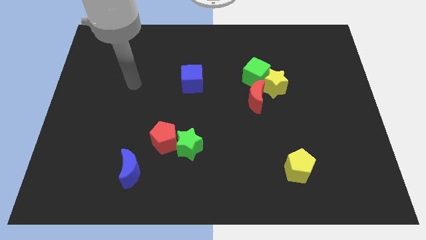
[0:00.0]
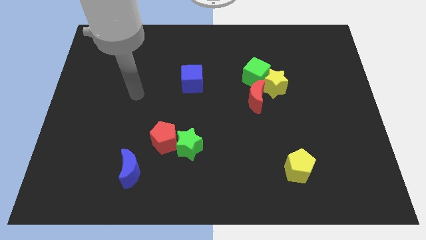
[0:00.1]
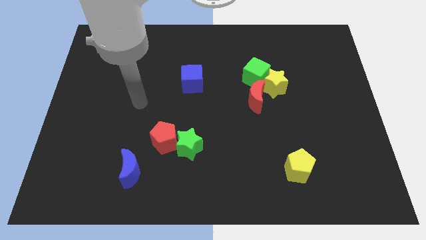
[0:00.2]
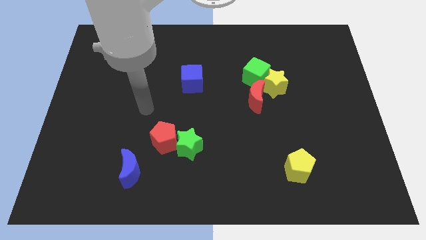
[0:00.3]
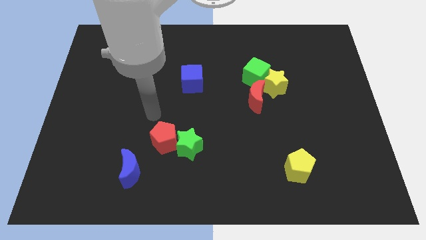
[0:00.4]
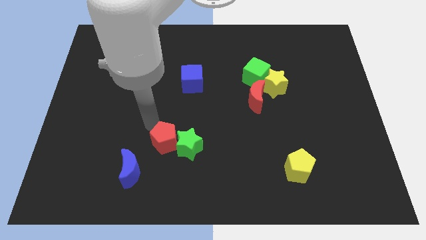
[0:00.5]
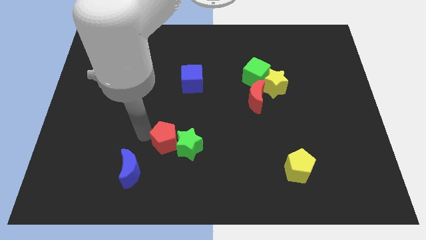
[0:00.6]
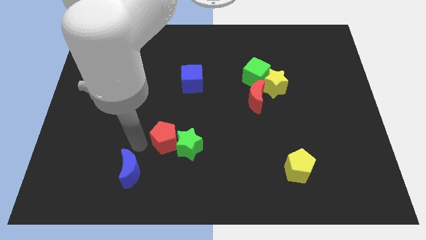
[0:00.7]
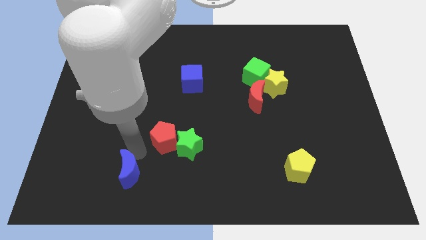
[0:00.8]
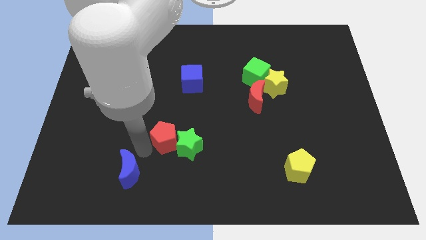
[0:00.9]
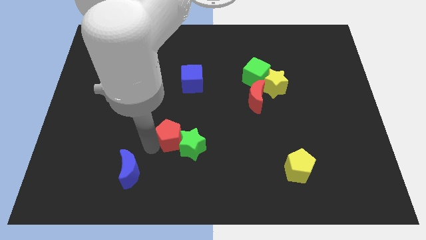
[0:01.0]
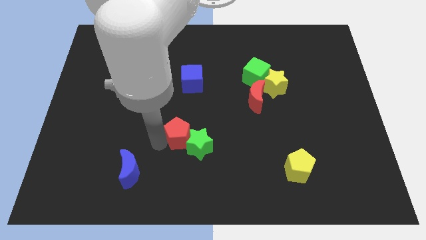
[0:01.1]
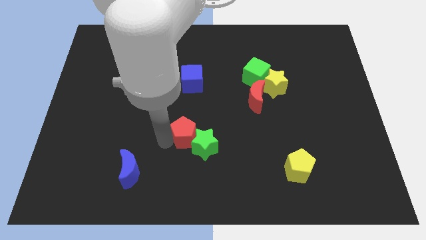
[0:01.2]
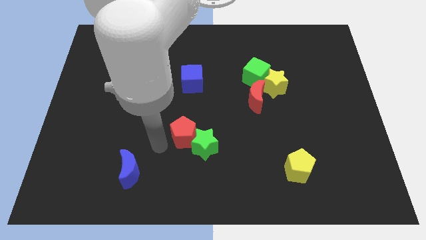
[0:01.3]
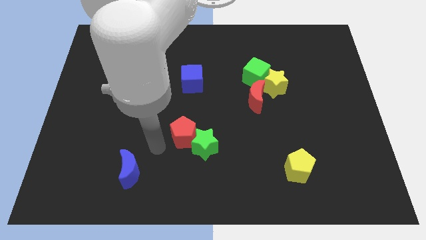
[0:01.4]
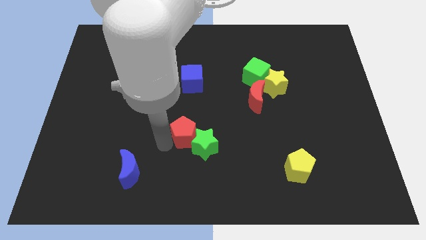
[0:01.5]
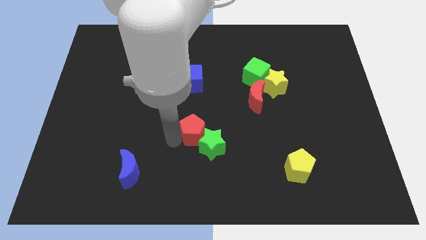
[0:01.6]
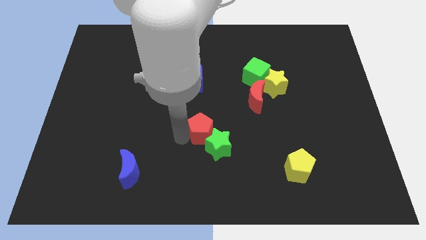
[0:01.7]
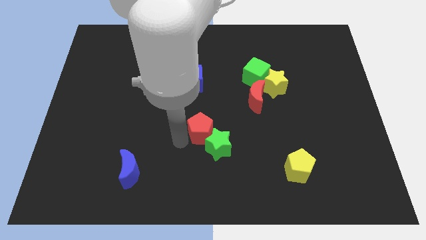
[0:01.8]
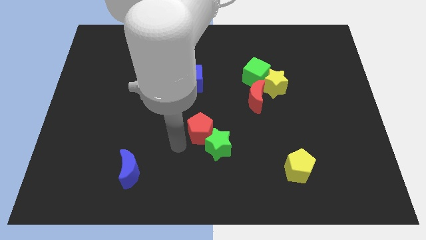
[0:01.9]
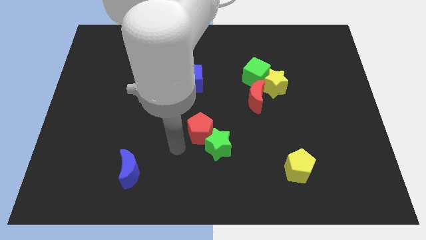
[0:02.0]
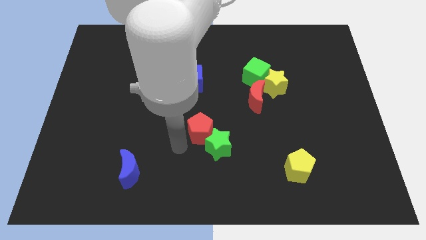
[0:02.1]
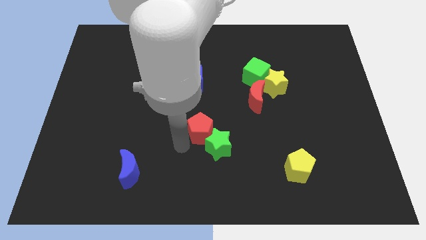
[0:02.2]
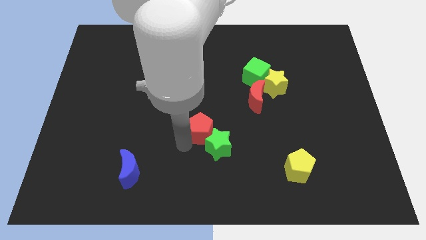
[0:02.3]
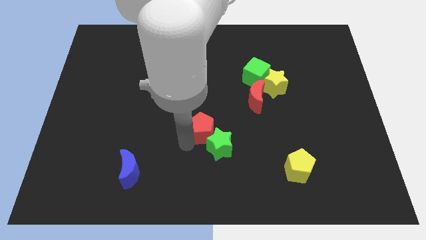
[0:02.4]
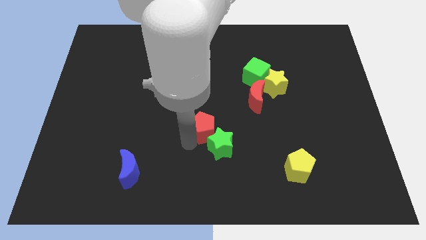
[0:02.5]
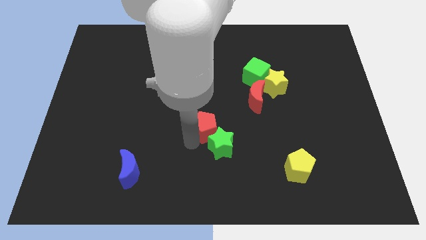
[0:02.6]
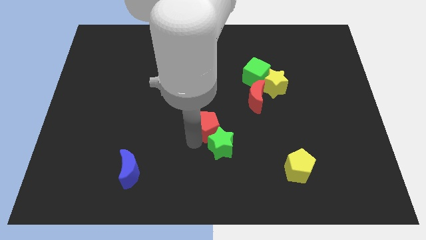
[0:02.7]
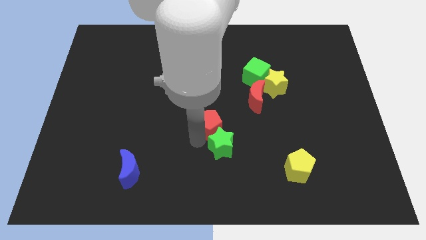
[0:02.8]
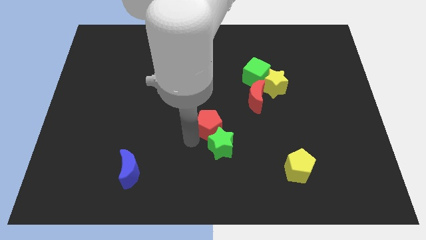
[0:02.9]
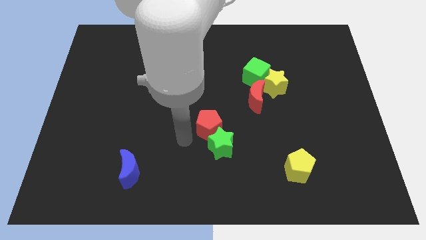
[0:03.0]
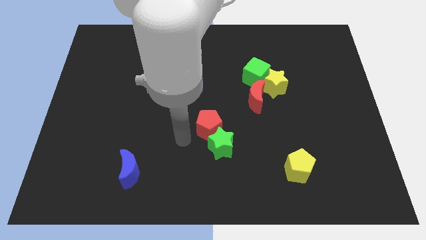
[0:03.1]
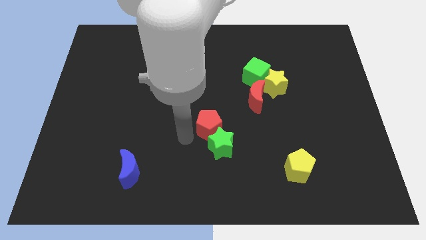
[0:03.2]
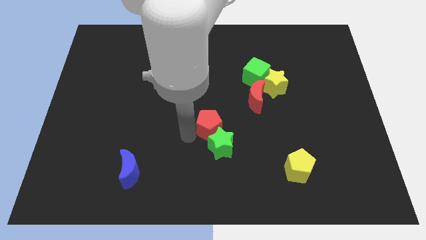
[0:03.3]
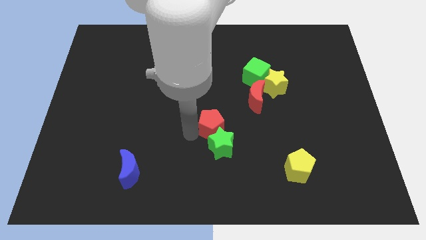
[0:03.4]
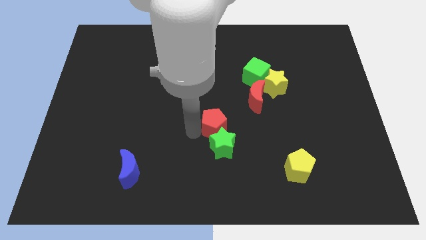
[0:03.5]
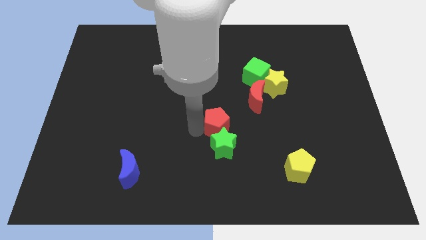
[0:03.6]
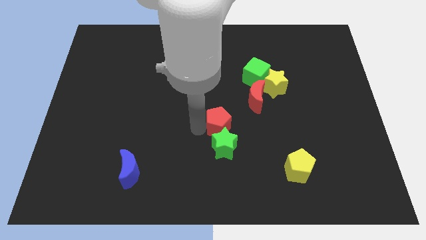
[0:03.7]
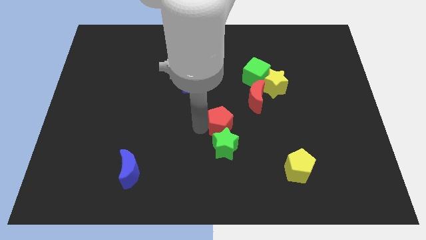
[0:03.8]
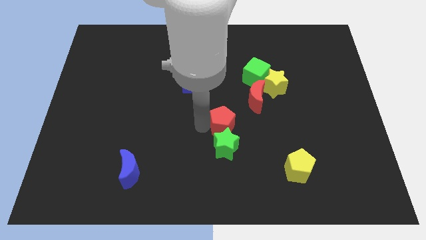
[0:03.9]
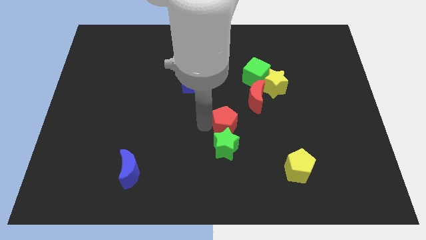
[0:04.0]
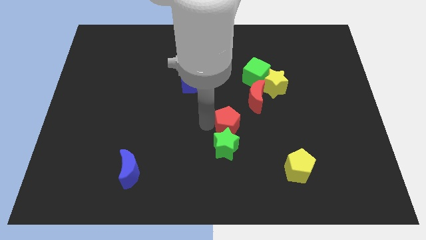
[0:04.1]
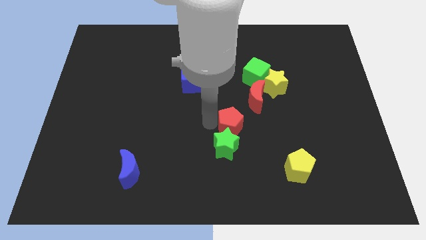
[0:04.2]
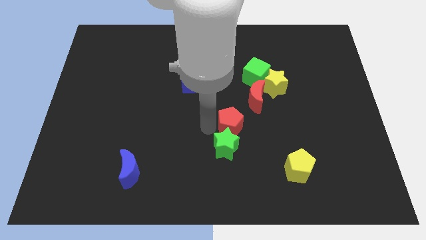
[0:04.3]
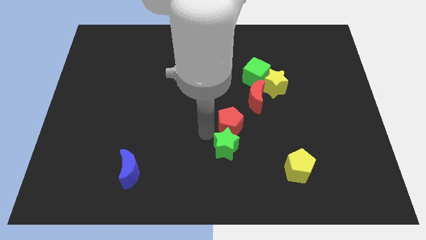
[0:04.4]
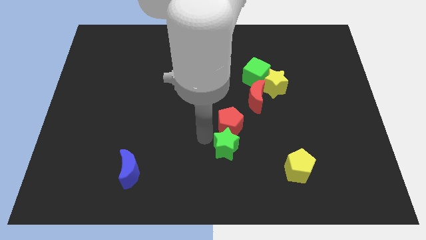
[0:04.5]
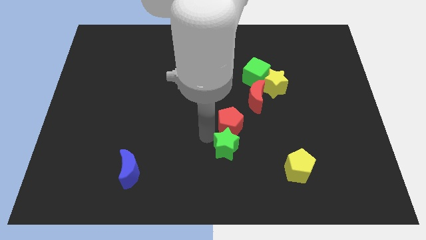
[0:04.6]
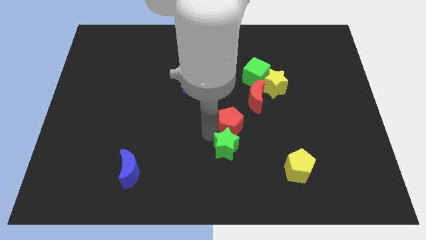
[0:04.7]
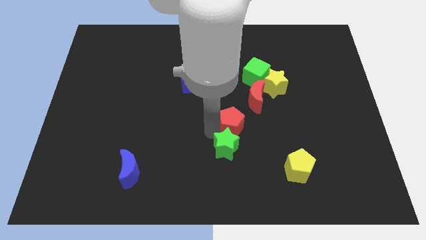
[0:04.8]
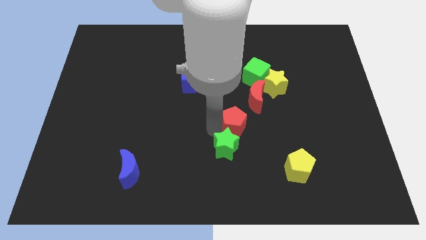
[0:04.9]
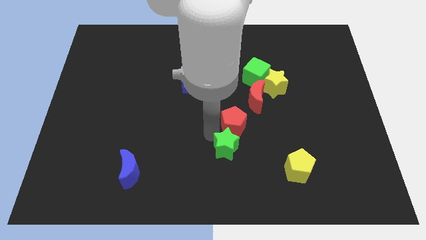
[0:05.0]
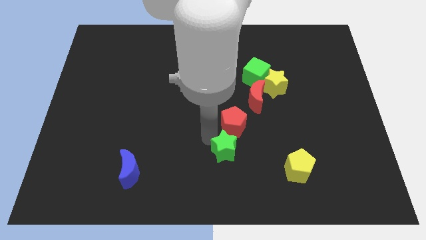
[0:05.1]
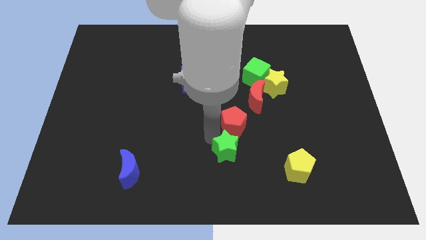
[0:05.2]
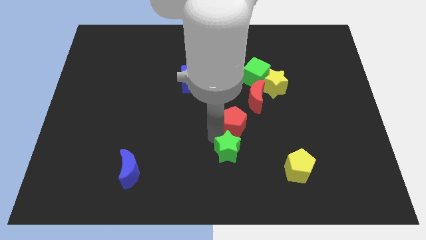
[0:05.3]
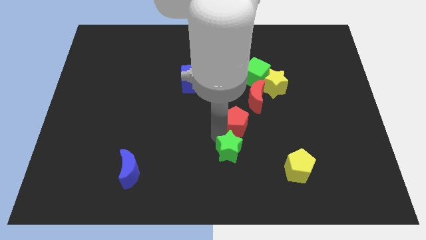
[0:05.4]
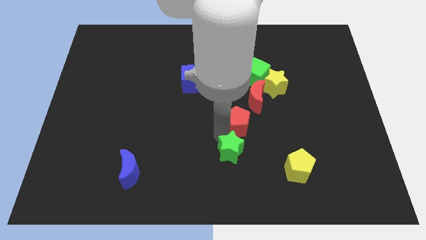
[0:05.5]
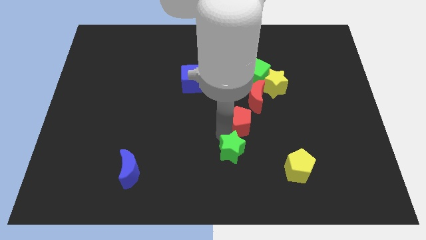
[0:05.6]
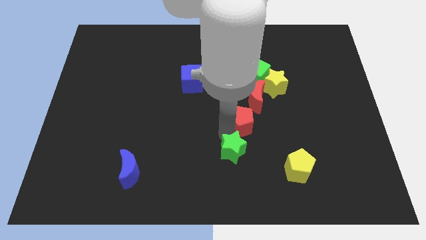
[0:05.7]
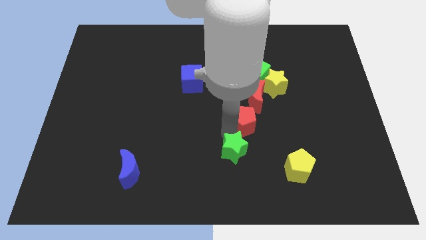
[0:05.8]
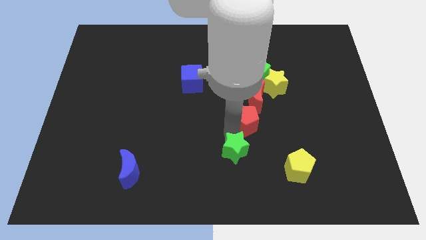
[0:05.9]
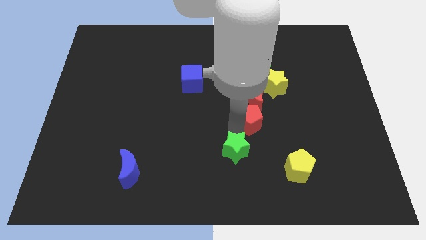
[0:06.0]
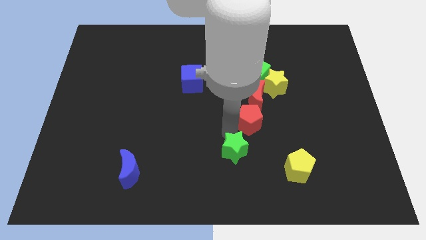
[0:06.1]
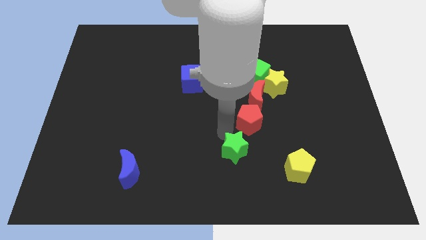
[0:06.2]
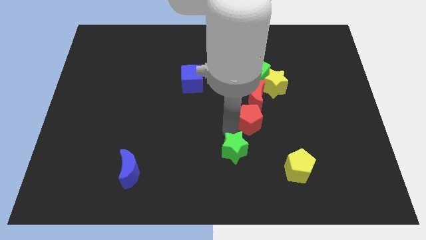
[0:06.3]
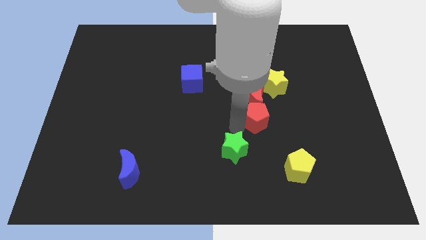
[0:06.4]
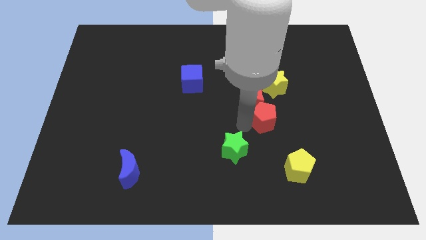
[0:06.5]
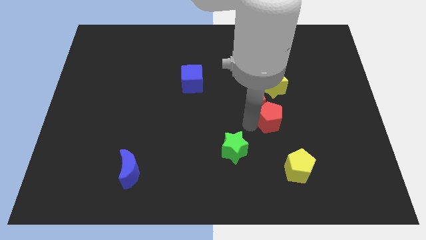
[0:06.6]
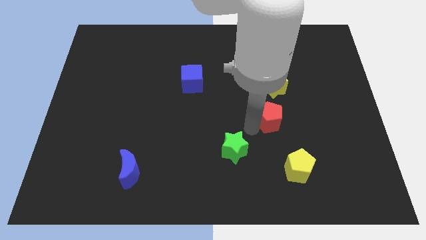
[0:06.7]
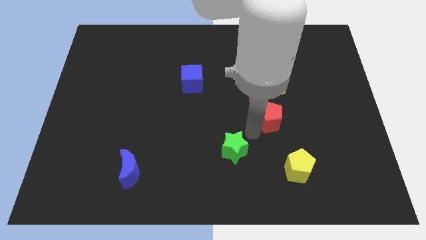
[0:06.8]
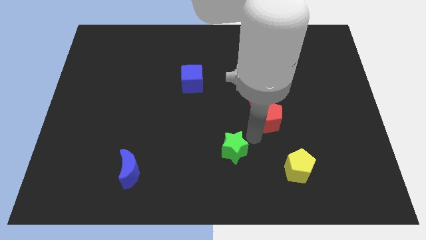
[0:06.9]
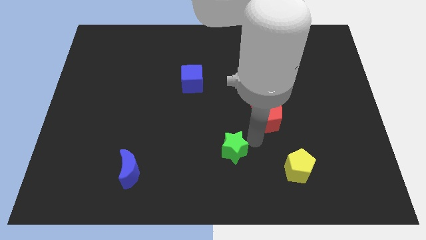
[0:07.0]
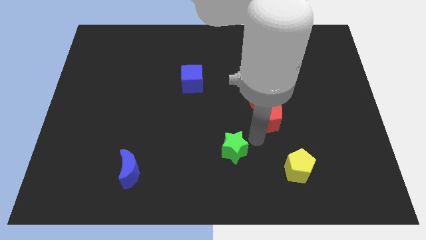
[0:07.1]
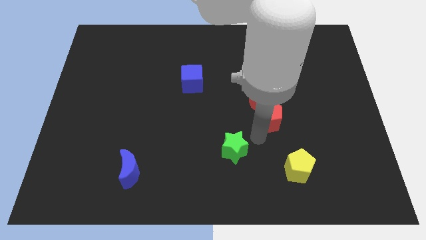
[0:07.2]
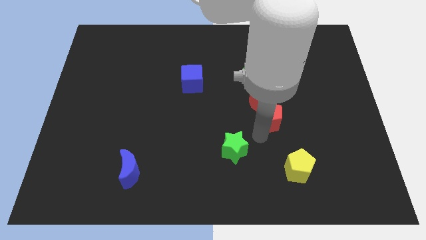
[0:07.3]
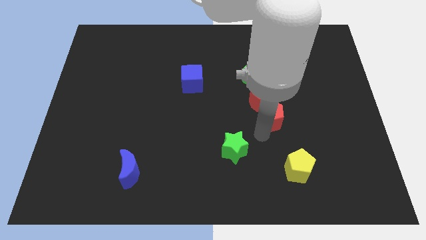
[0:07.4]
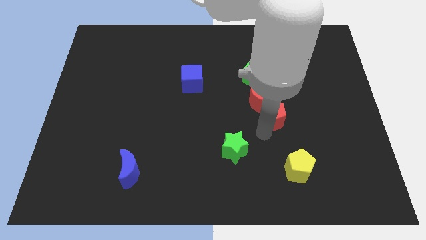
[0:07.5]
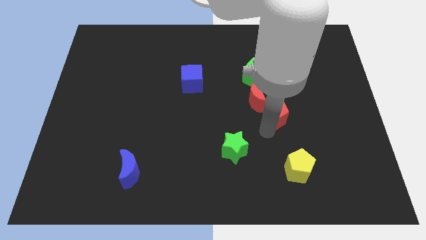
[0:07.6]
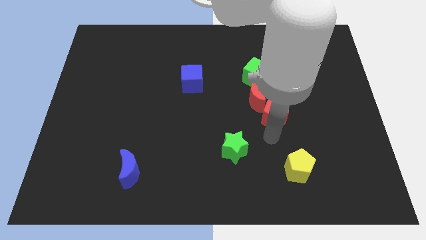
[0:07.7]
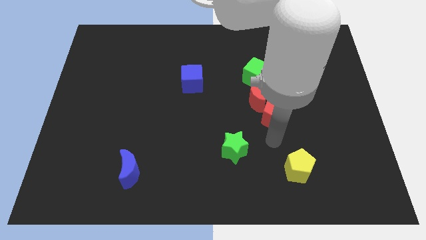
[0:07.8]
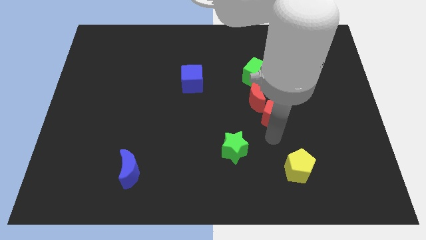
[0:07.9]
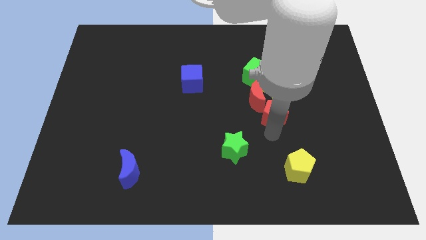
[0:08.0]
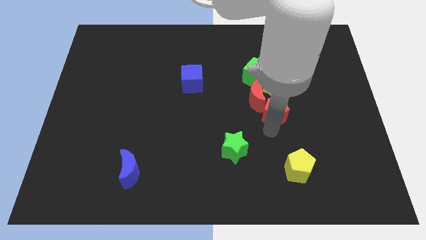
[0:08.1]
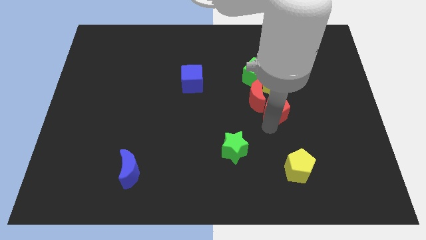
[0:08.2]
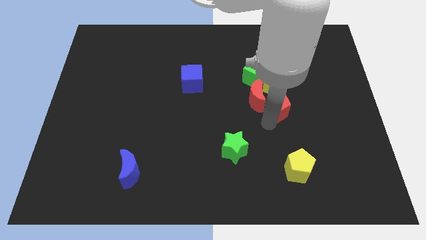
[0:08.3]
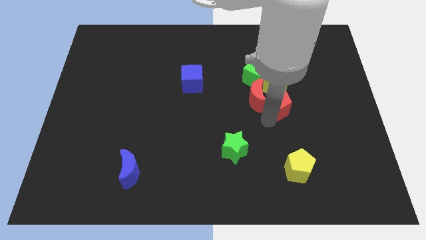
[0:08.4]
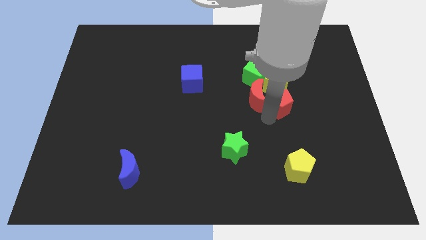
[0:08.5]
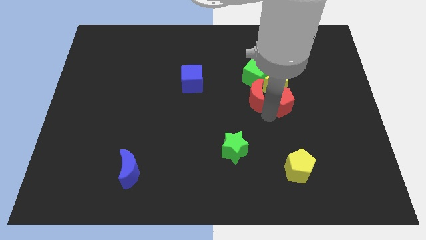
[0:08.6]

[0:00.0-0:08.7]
move the red pentagon next to the yellow star
